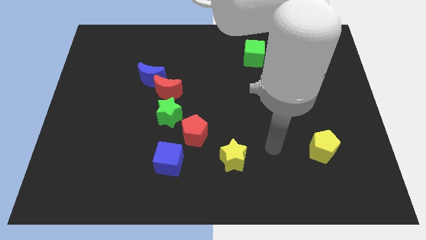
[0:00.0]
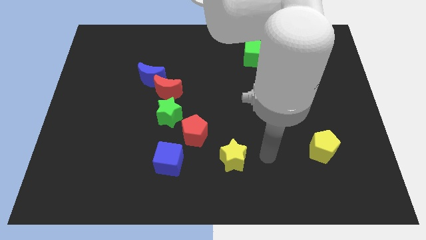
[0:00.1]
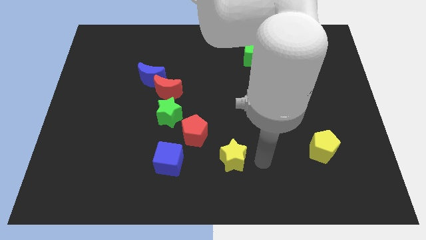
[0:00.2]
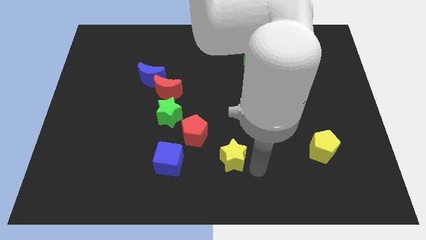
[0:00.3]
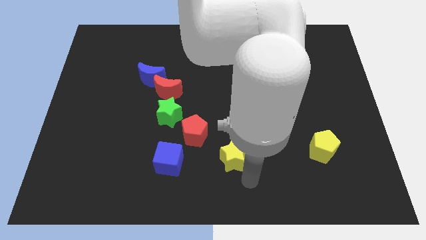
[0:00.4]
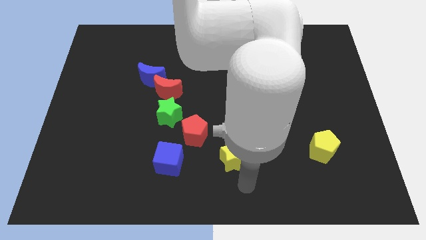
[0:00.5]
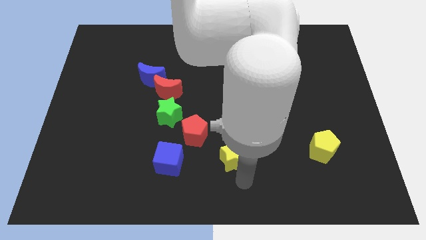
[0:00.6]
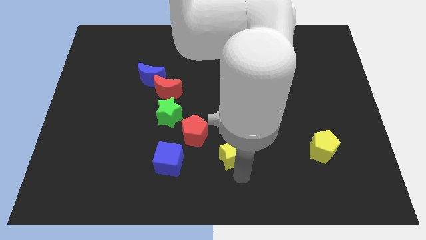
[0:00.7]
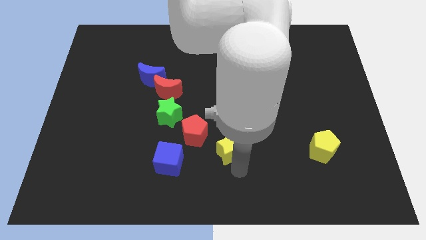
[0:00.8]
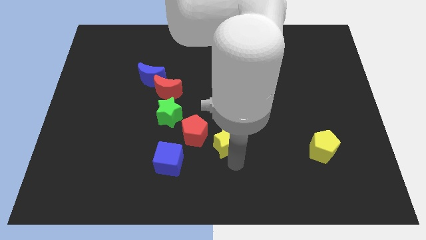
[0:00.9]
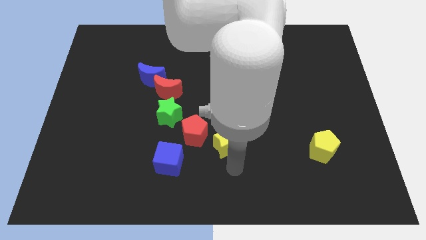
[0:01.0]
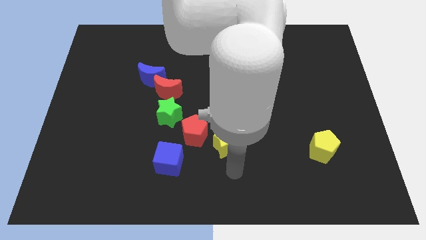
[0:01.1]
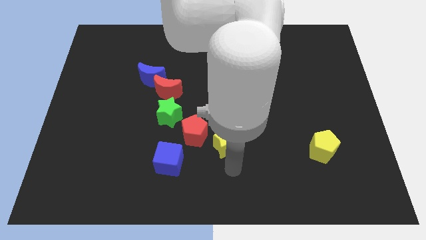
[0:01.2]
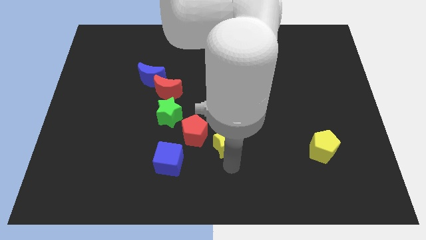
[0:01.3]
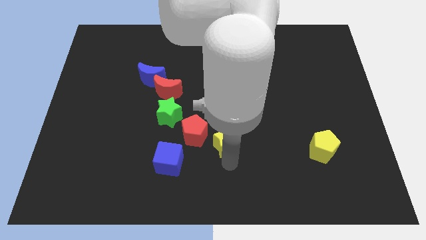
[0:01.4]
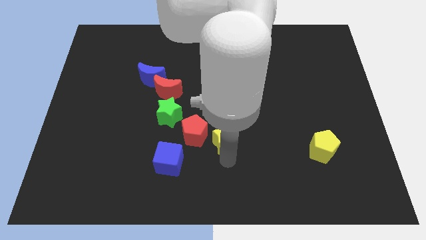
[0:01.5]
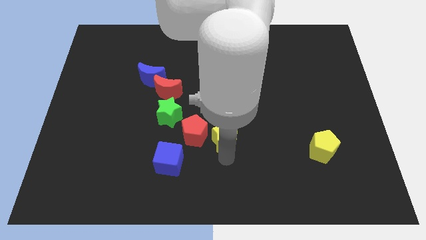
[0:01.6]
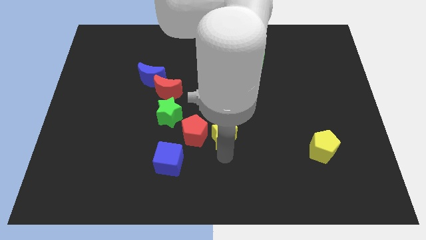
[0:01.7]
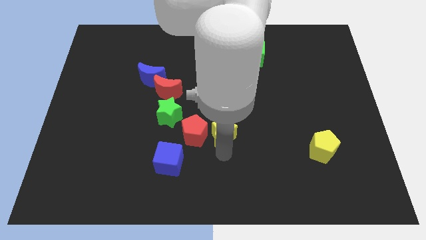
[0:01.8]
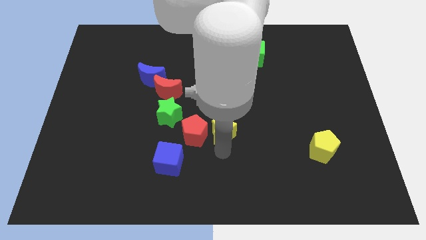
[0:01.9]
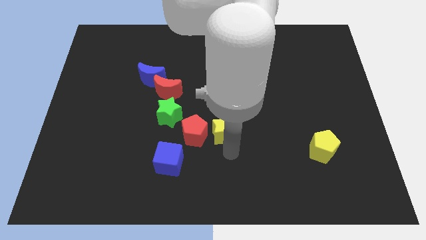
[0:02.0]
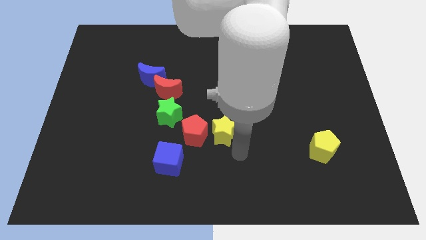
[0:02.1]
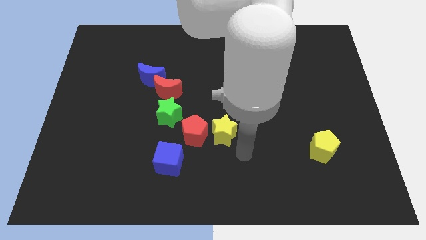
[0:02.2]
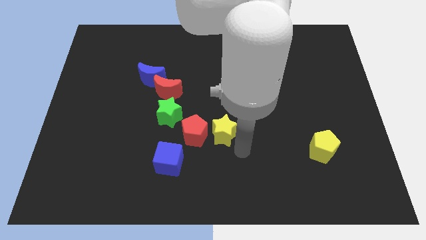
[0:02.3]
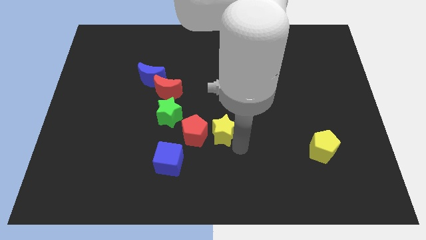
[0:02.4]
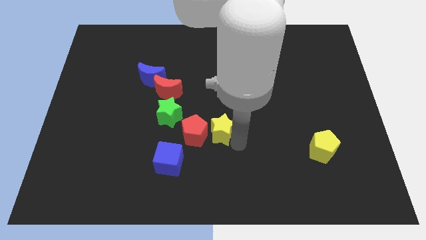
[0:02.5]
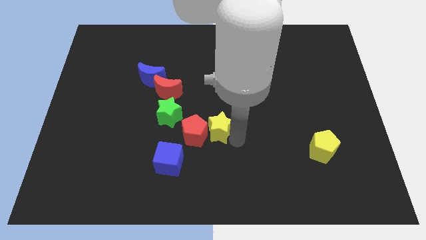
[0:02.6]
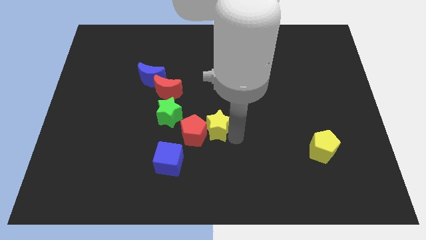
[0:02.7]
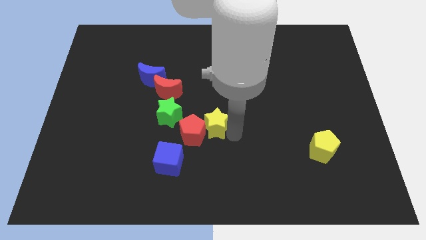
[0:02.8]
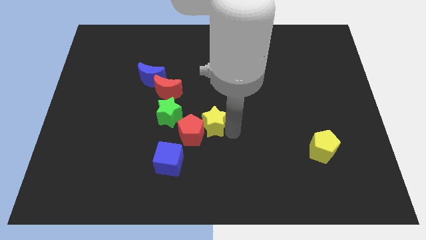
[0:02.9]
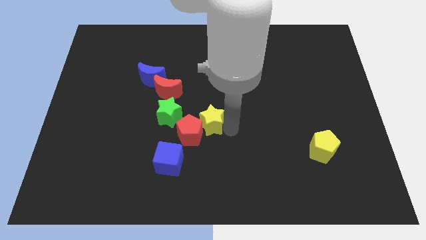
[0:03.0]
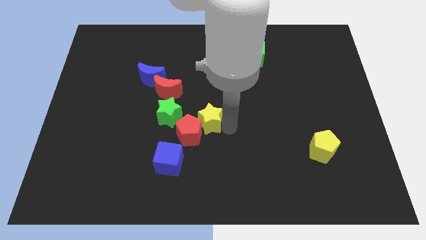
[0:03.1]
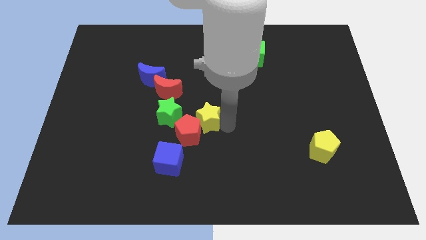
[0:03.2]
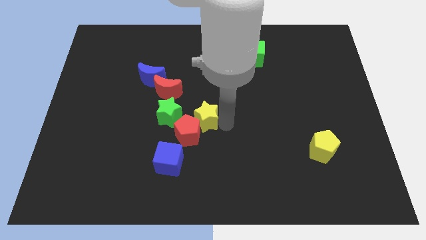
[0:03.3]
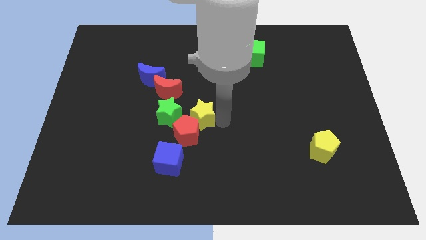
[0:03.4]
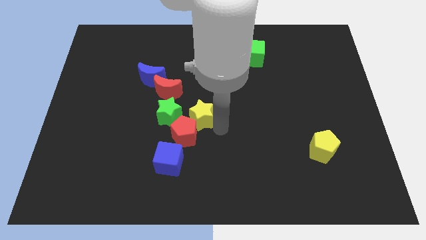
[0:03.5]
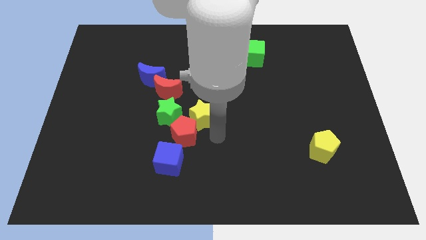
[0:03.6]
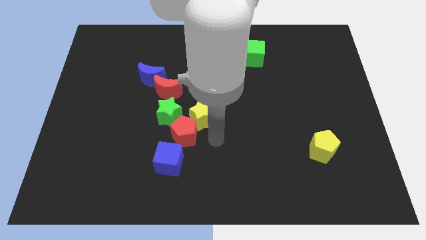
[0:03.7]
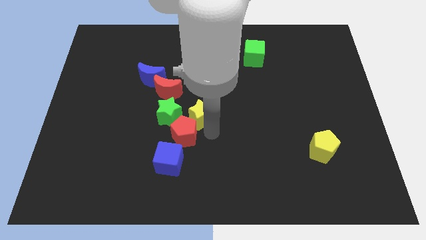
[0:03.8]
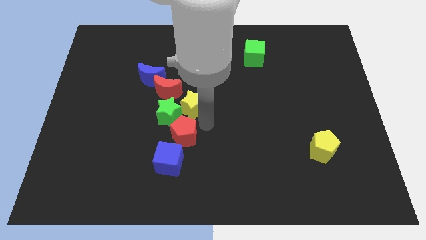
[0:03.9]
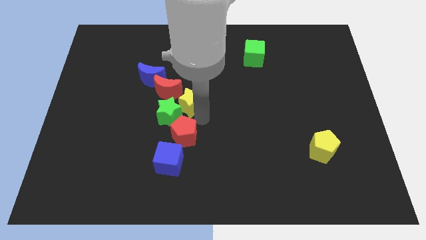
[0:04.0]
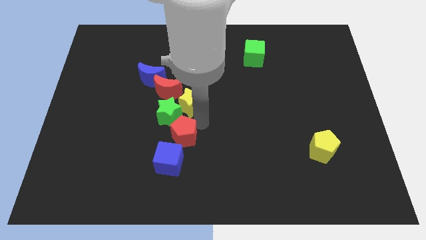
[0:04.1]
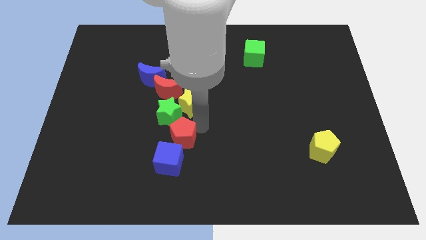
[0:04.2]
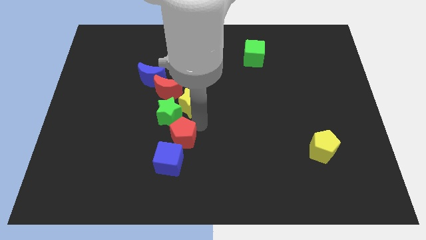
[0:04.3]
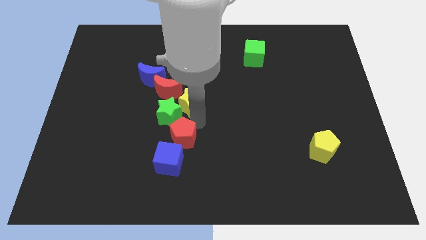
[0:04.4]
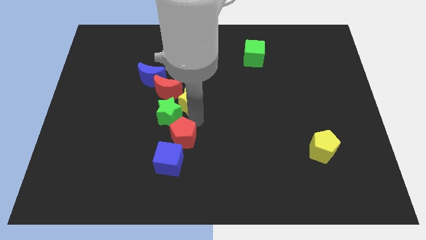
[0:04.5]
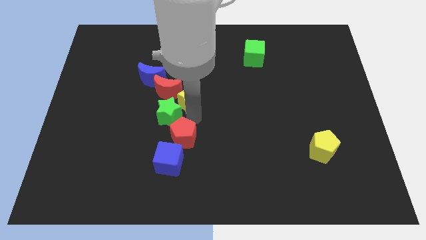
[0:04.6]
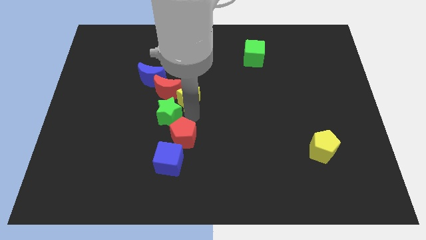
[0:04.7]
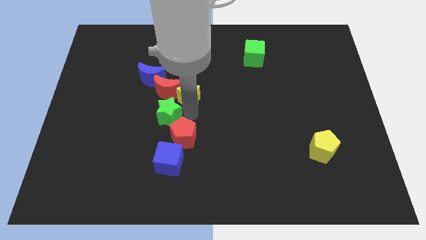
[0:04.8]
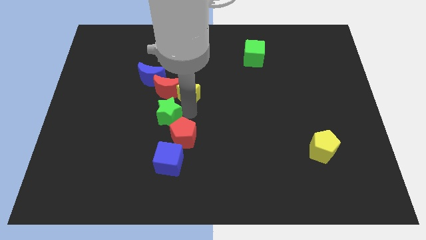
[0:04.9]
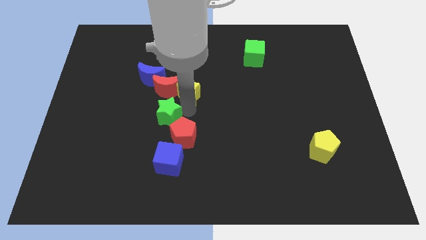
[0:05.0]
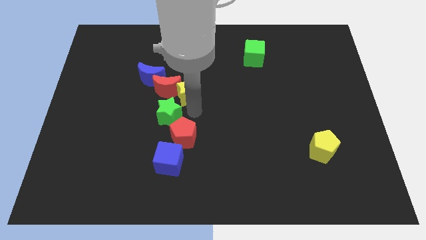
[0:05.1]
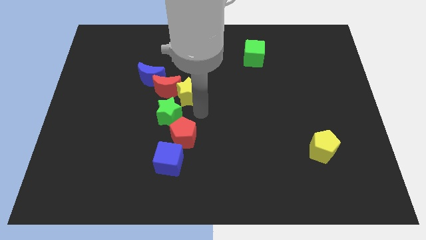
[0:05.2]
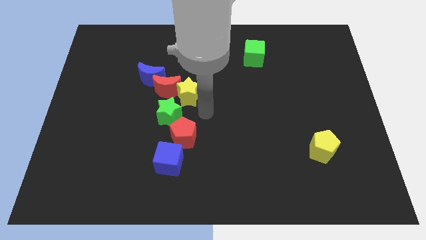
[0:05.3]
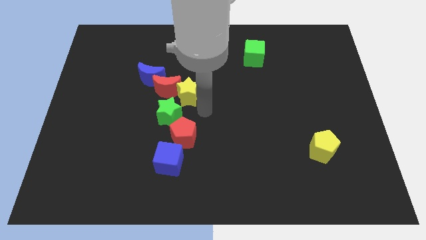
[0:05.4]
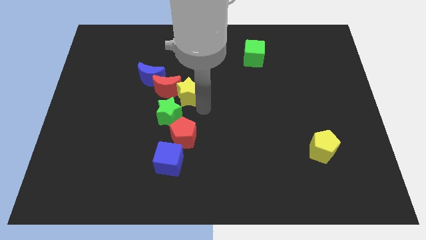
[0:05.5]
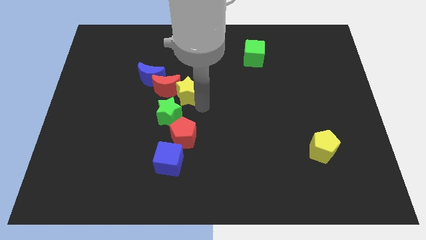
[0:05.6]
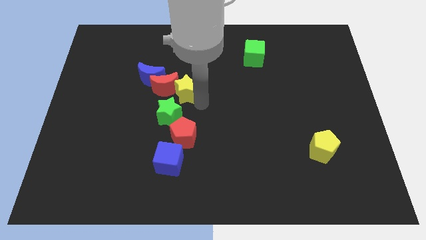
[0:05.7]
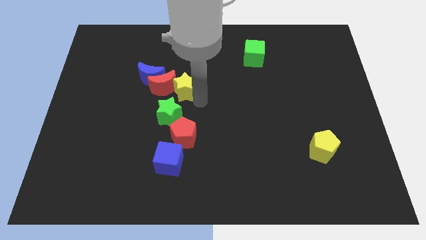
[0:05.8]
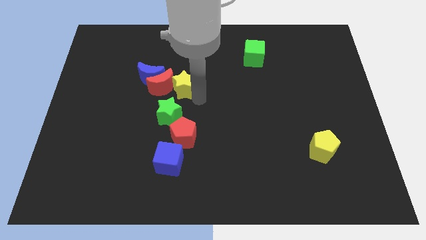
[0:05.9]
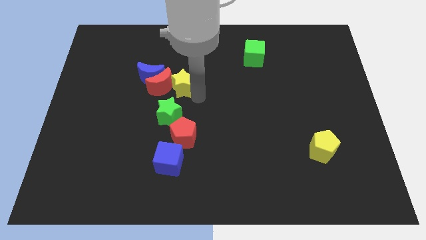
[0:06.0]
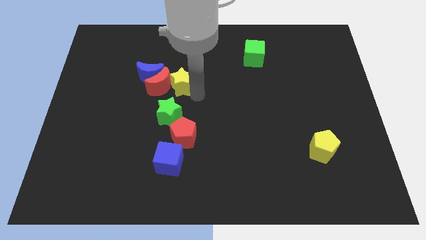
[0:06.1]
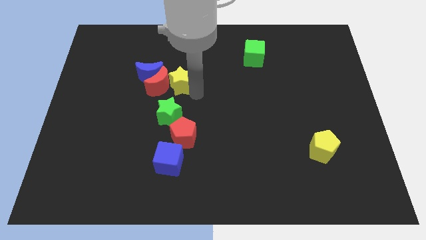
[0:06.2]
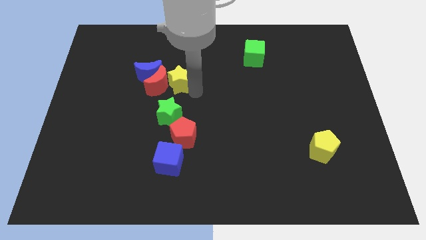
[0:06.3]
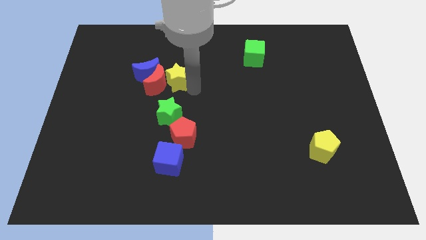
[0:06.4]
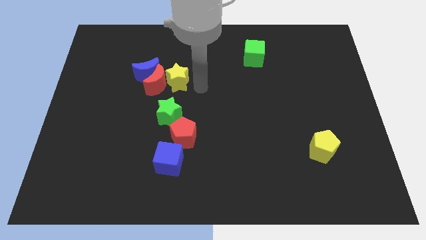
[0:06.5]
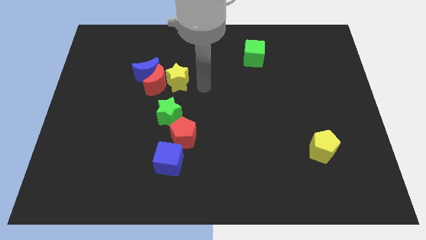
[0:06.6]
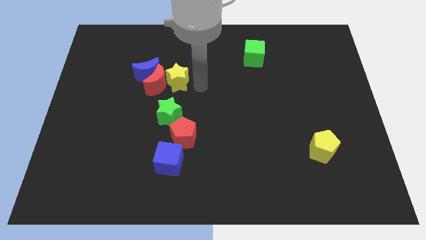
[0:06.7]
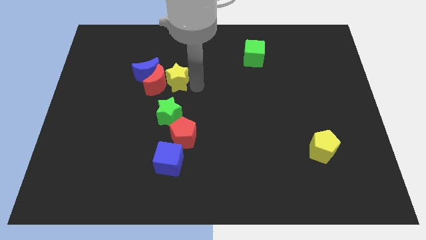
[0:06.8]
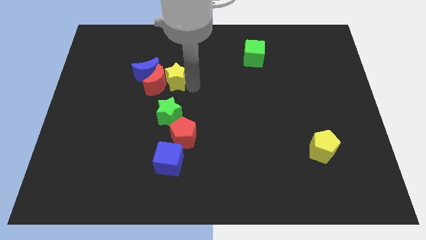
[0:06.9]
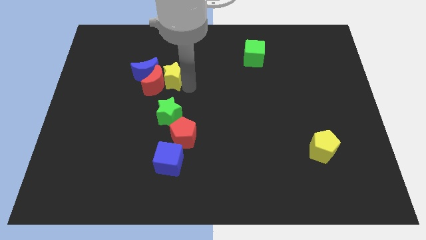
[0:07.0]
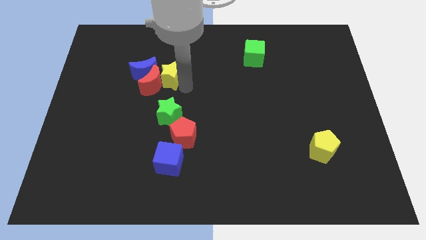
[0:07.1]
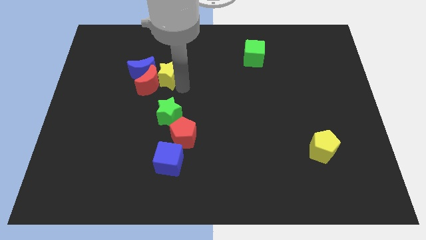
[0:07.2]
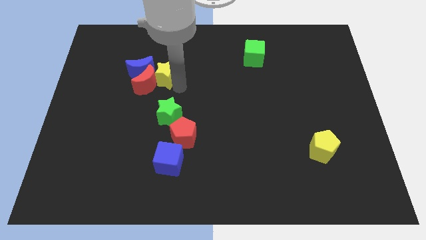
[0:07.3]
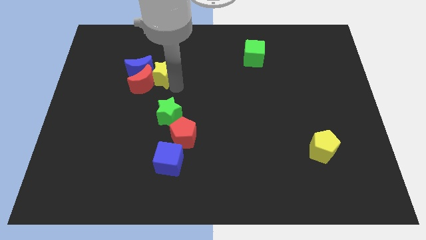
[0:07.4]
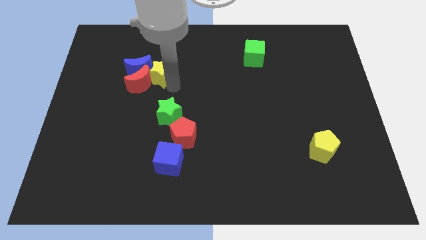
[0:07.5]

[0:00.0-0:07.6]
slide the yellow star towards the blue moon
